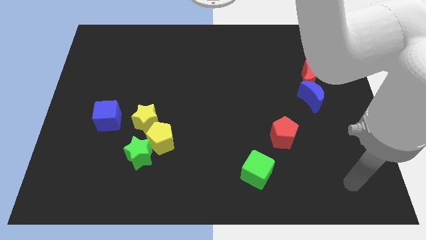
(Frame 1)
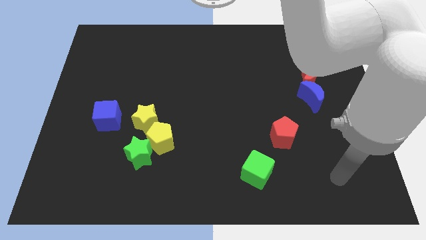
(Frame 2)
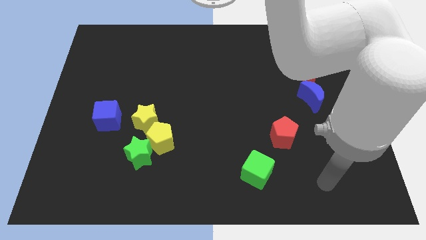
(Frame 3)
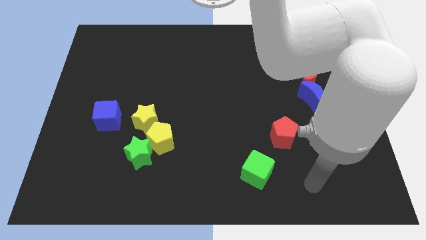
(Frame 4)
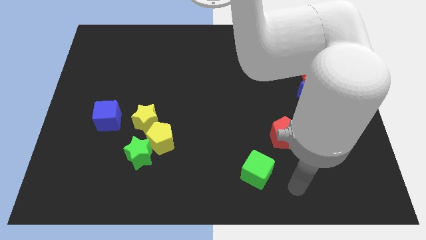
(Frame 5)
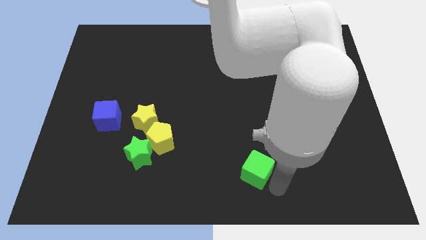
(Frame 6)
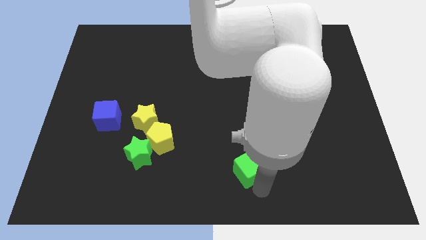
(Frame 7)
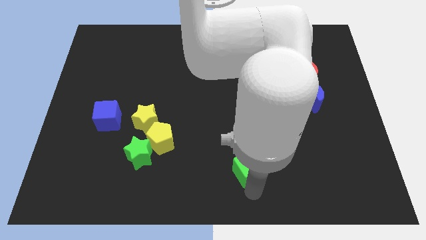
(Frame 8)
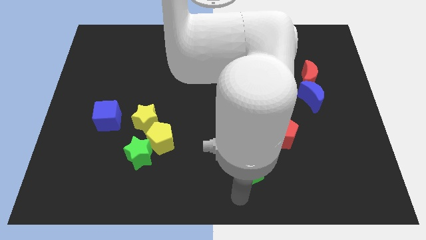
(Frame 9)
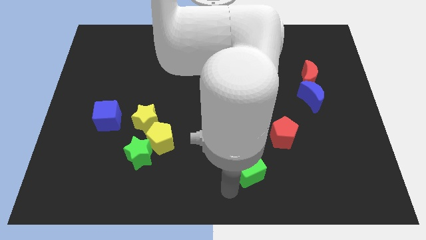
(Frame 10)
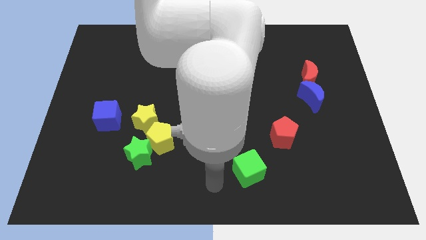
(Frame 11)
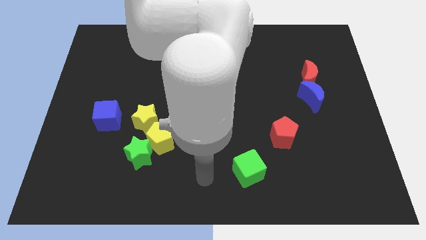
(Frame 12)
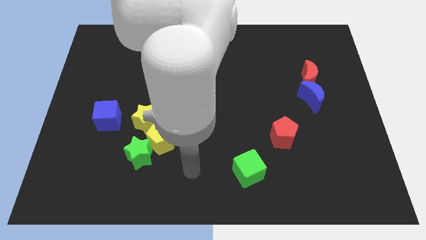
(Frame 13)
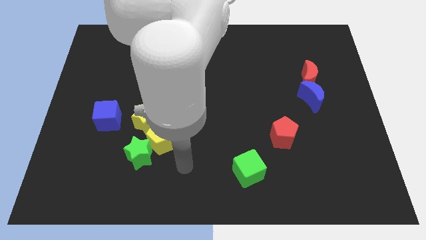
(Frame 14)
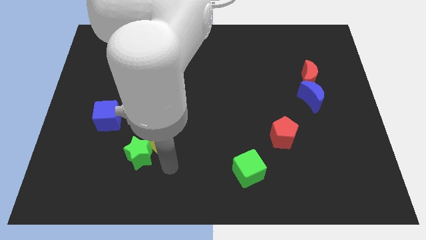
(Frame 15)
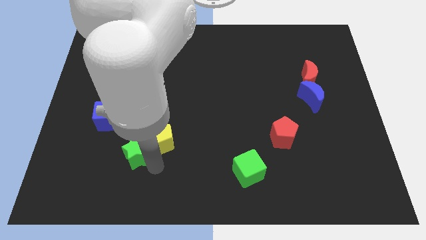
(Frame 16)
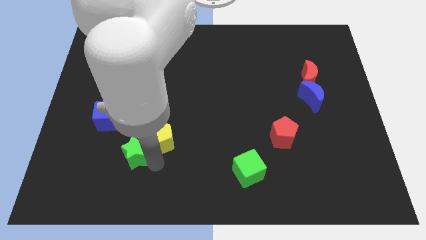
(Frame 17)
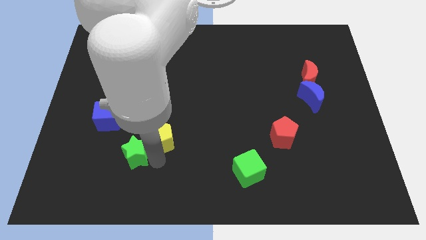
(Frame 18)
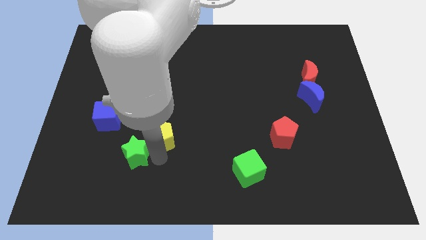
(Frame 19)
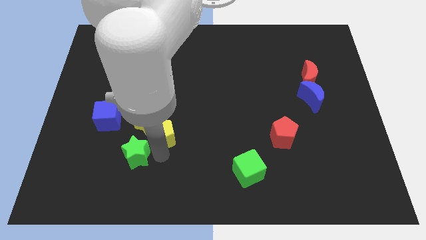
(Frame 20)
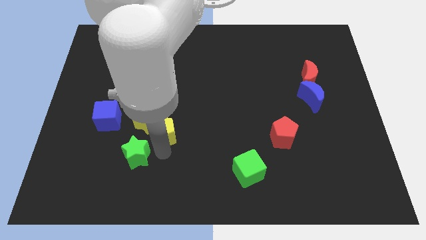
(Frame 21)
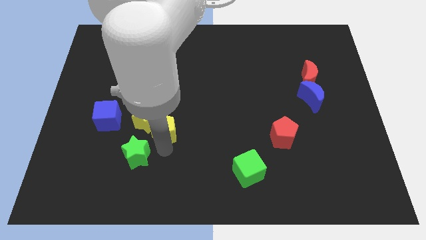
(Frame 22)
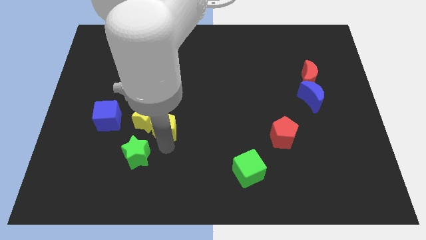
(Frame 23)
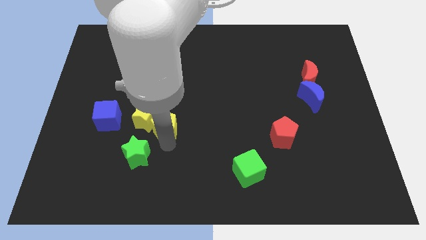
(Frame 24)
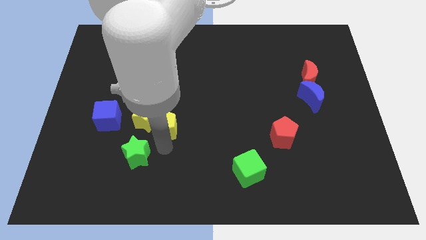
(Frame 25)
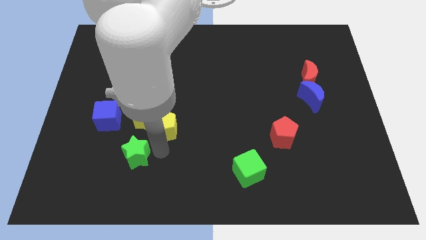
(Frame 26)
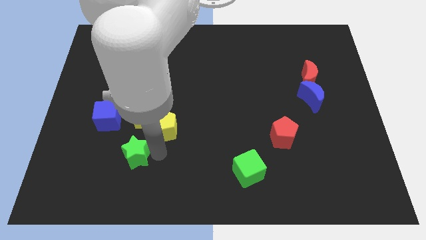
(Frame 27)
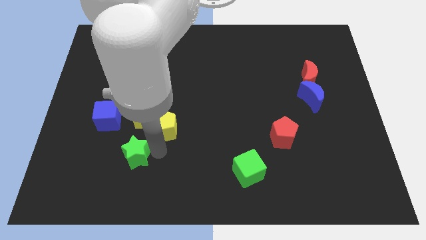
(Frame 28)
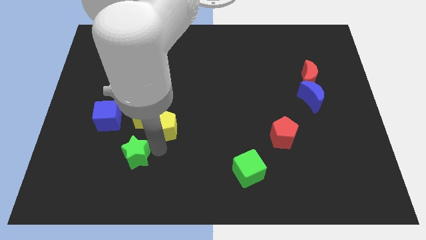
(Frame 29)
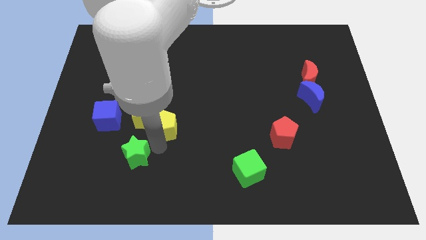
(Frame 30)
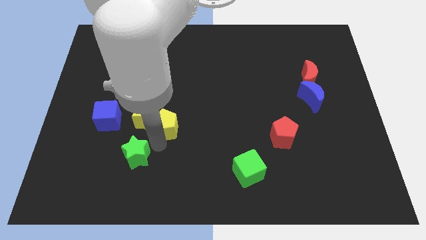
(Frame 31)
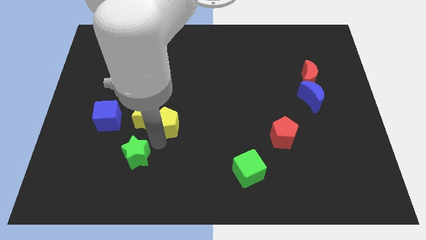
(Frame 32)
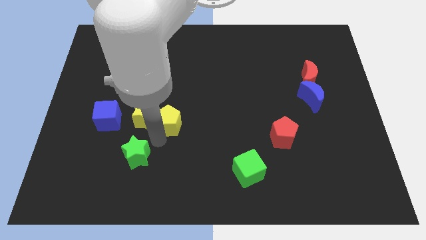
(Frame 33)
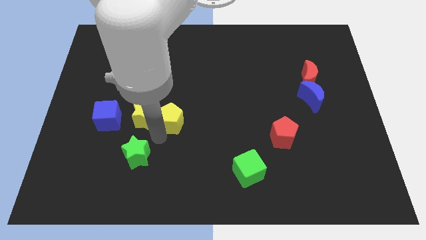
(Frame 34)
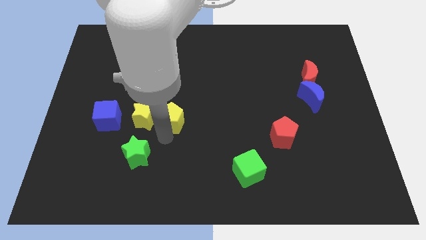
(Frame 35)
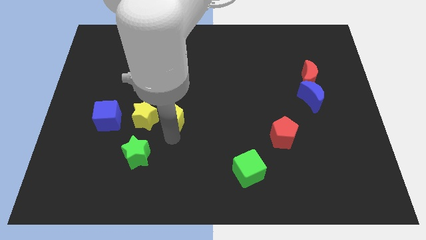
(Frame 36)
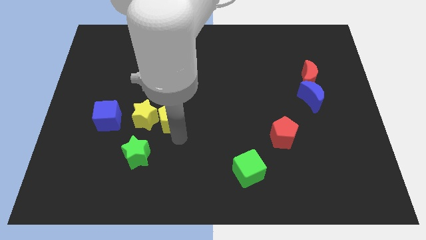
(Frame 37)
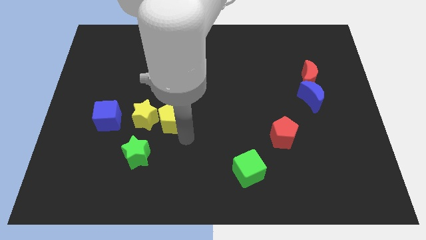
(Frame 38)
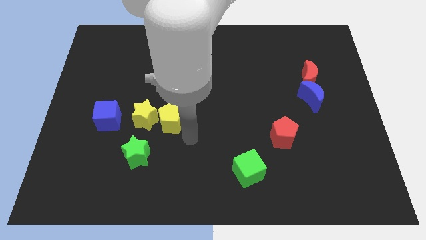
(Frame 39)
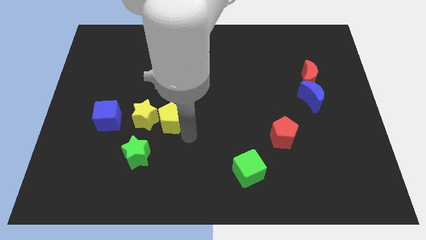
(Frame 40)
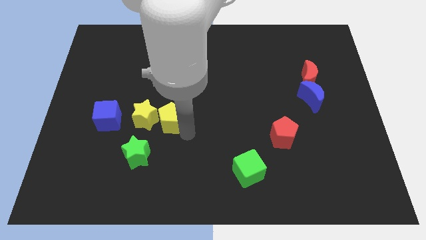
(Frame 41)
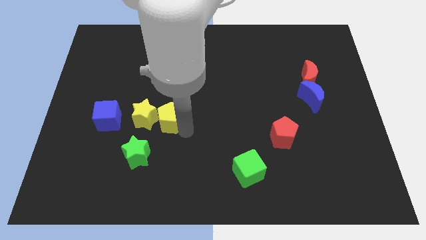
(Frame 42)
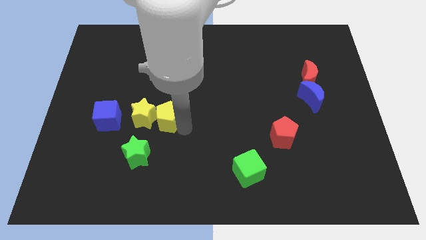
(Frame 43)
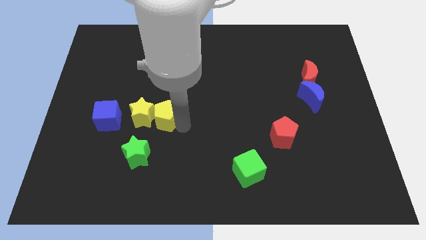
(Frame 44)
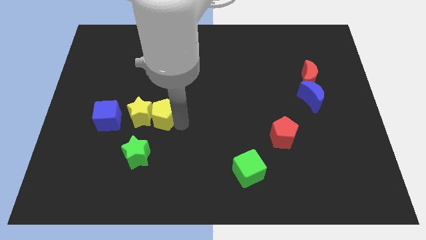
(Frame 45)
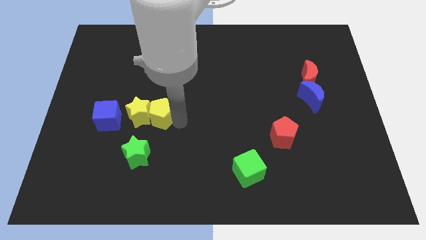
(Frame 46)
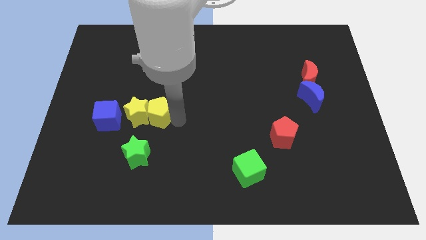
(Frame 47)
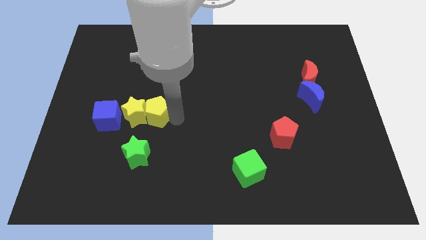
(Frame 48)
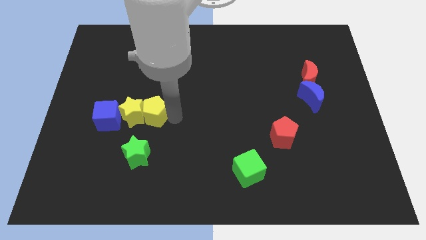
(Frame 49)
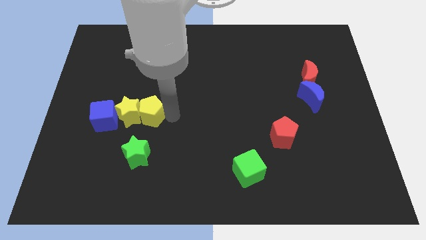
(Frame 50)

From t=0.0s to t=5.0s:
move the yellow pentagon upwards and then to the left slightly

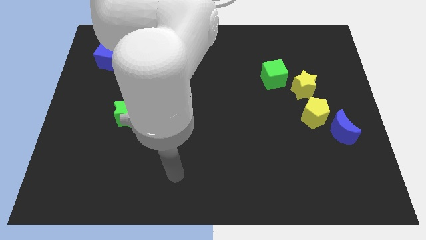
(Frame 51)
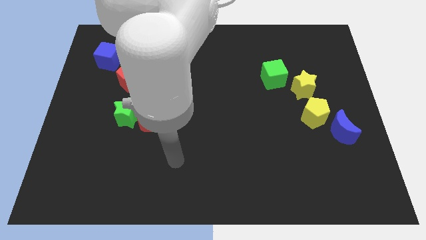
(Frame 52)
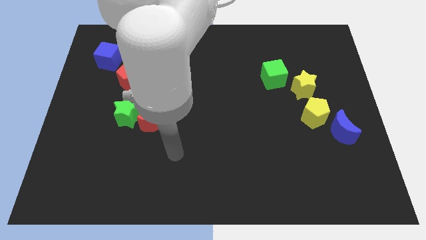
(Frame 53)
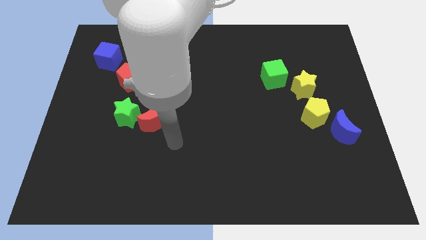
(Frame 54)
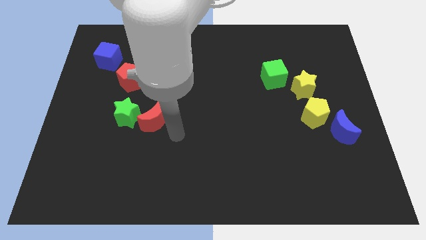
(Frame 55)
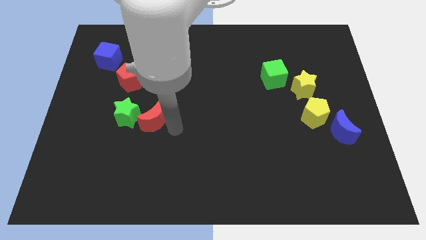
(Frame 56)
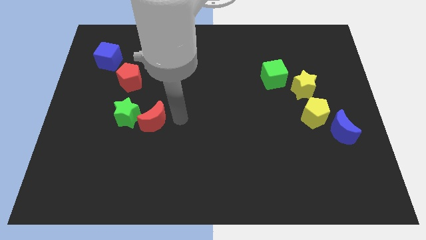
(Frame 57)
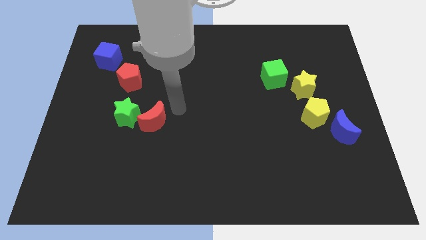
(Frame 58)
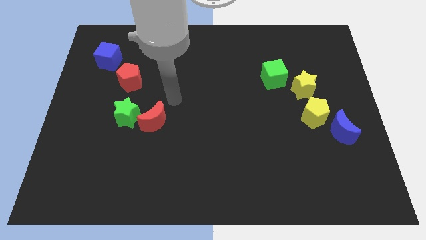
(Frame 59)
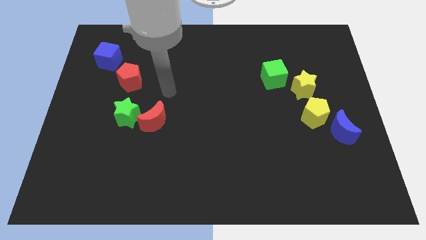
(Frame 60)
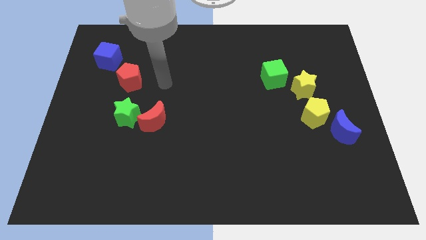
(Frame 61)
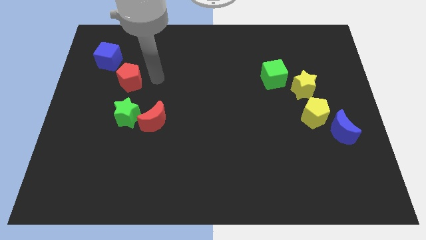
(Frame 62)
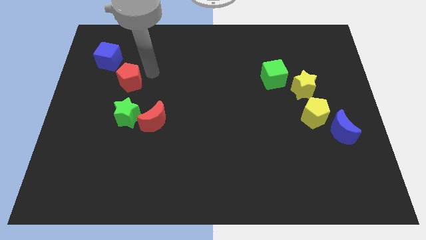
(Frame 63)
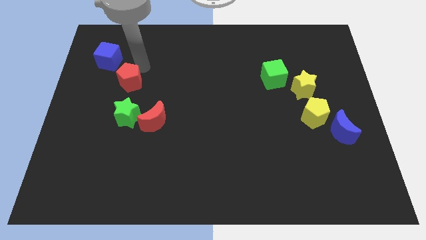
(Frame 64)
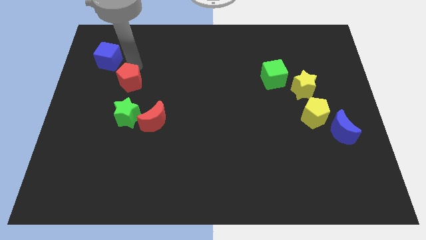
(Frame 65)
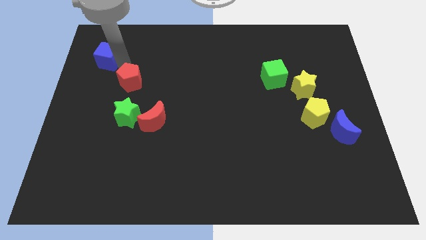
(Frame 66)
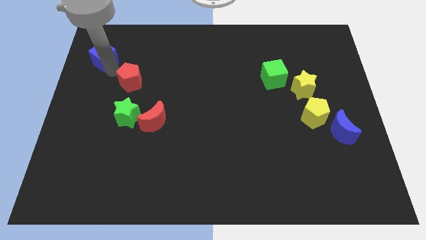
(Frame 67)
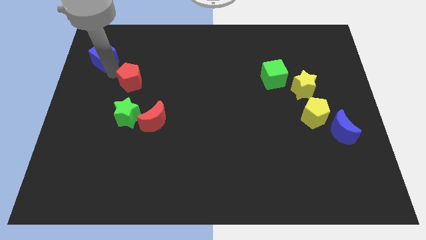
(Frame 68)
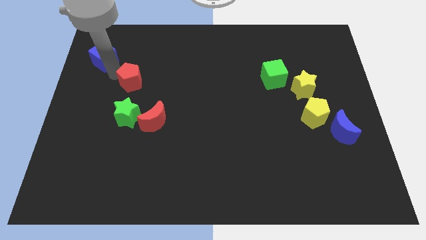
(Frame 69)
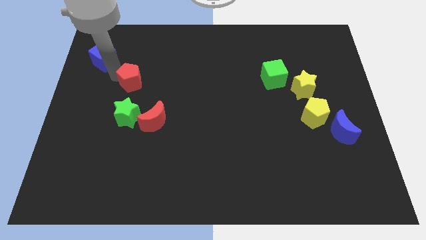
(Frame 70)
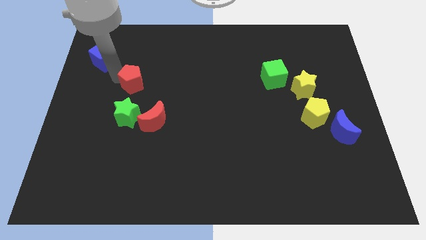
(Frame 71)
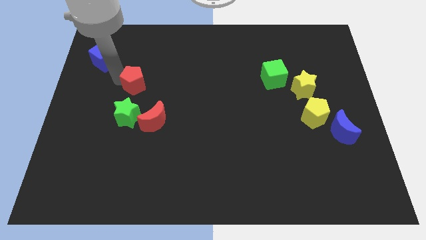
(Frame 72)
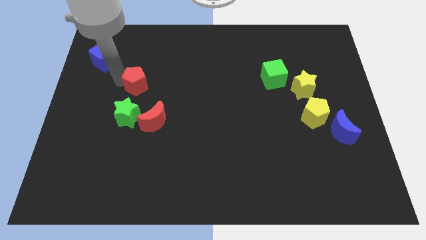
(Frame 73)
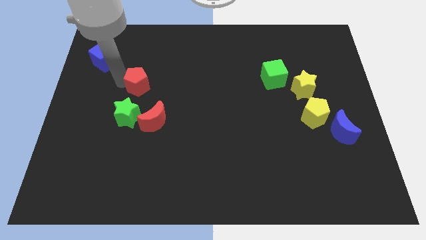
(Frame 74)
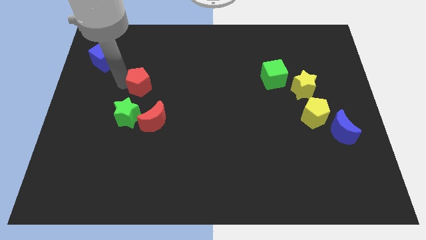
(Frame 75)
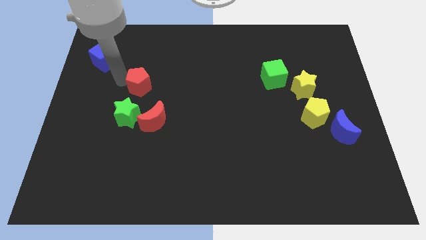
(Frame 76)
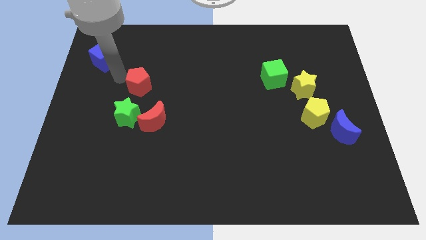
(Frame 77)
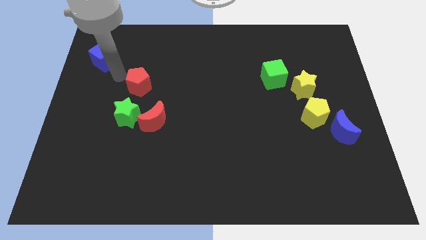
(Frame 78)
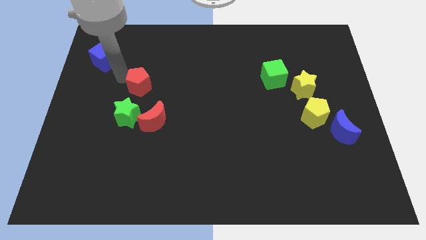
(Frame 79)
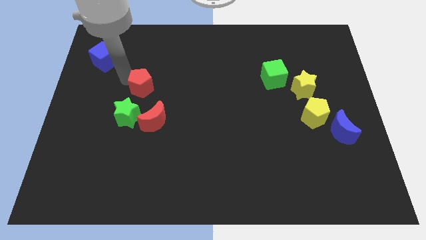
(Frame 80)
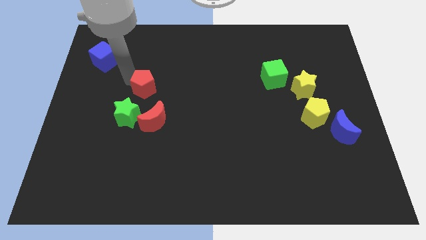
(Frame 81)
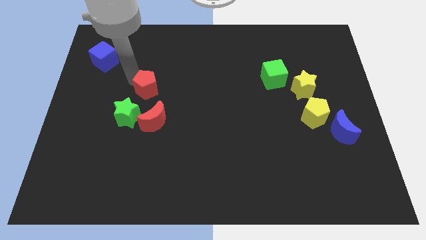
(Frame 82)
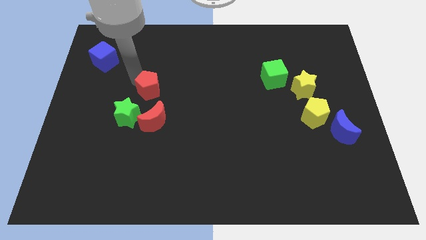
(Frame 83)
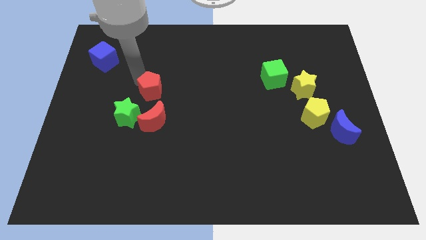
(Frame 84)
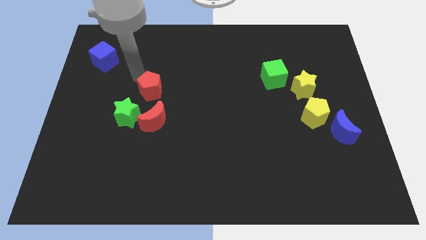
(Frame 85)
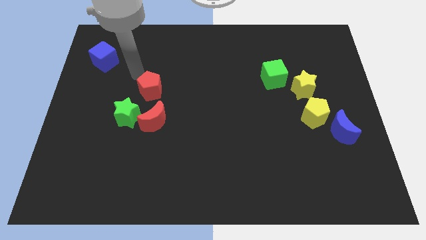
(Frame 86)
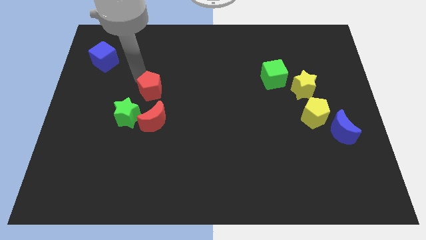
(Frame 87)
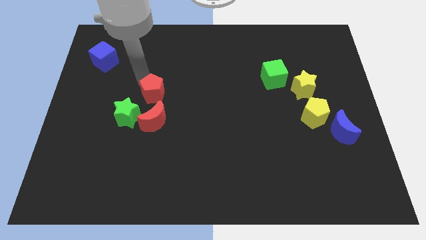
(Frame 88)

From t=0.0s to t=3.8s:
slightly move the red pentagon downwards and right diagonally
